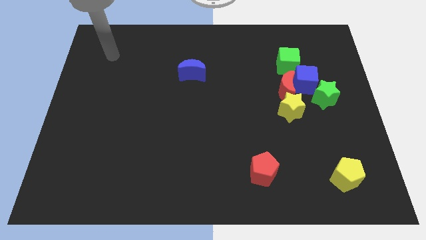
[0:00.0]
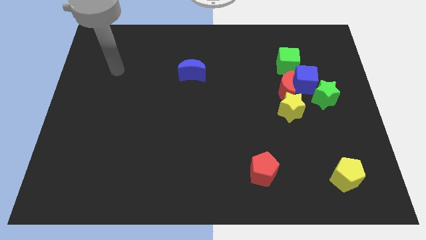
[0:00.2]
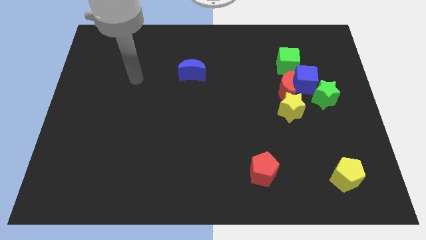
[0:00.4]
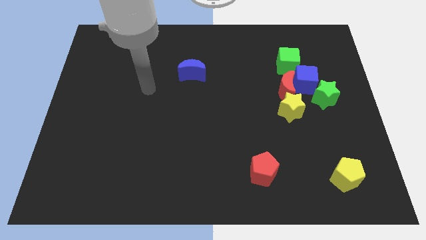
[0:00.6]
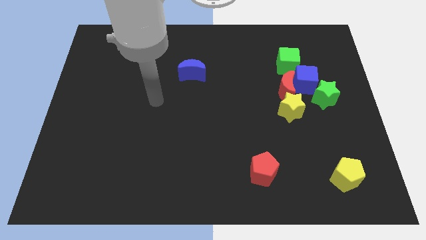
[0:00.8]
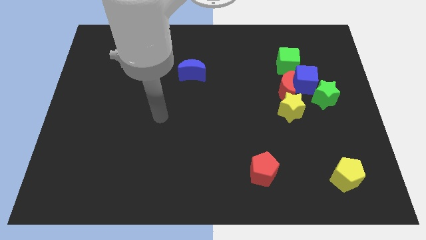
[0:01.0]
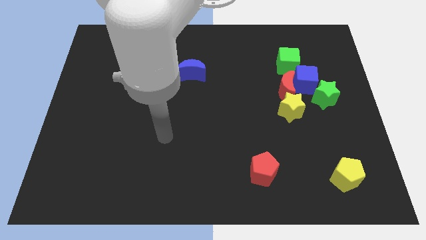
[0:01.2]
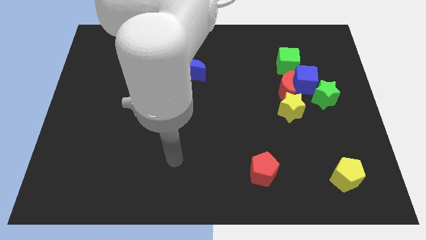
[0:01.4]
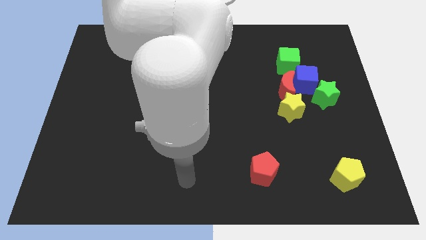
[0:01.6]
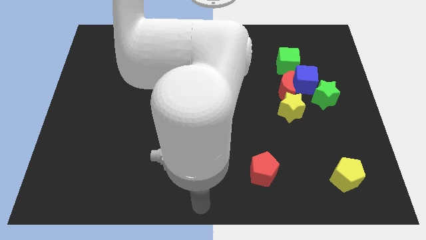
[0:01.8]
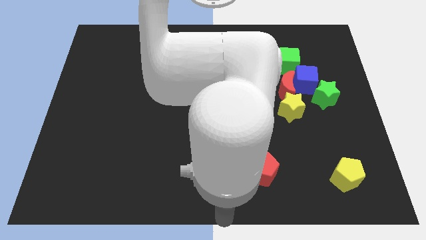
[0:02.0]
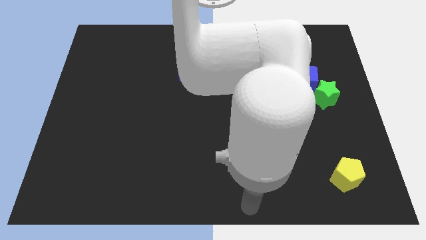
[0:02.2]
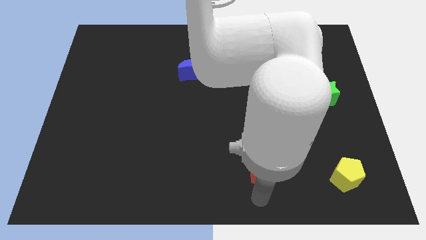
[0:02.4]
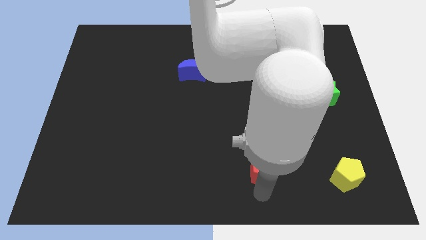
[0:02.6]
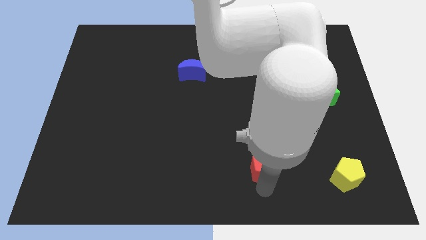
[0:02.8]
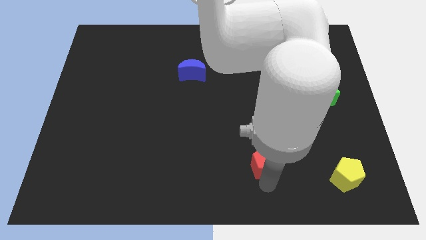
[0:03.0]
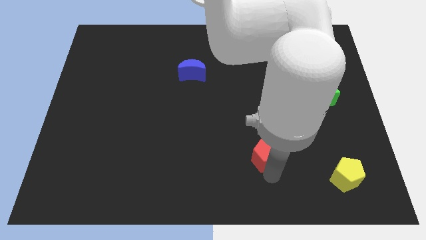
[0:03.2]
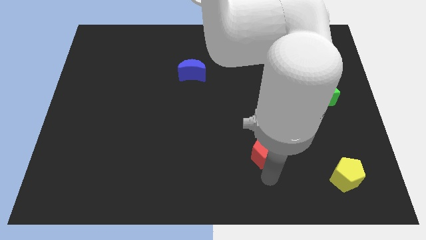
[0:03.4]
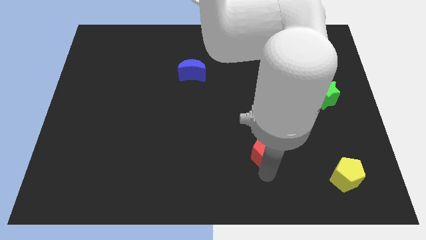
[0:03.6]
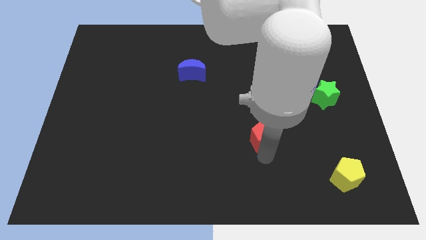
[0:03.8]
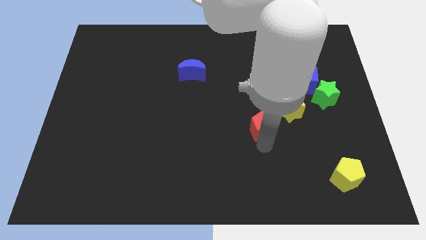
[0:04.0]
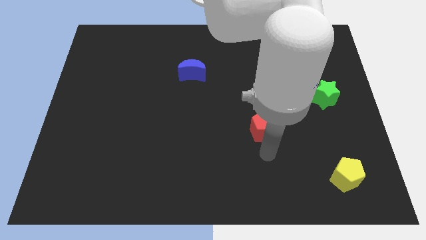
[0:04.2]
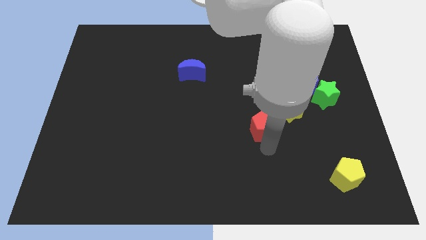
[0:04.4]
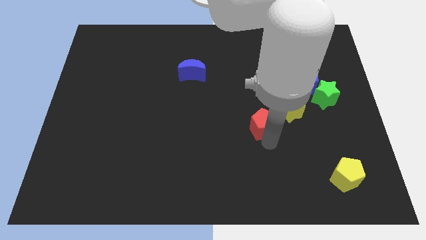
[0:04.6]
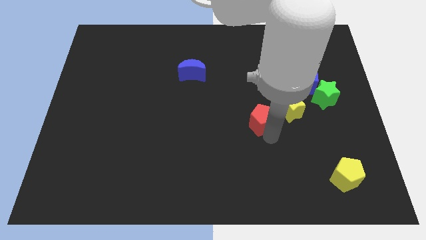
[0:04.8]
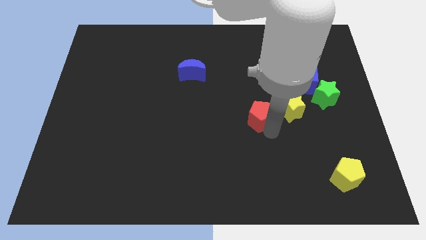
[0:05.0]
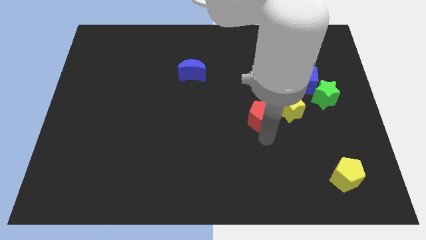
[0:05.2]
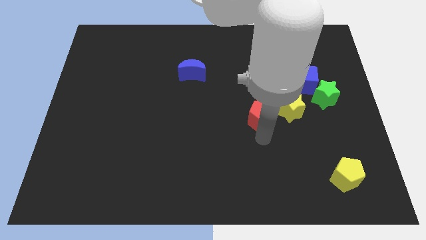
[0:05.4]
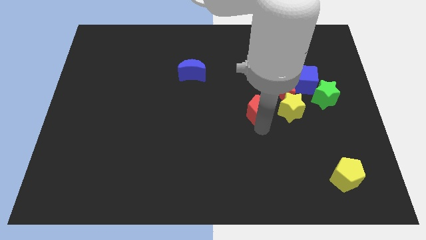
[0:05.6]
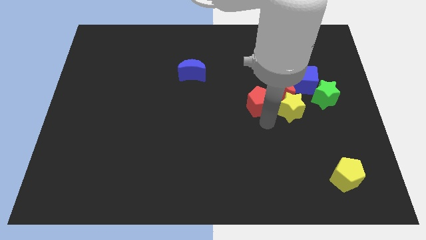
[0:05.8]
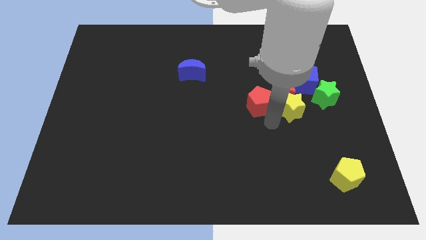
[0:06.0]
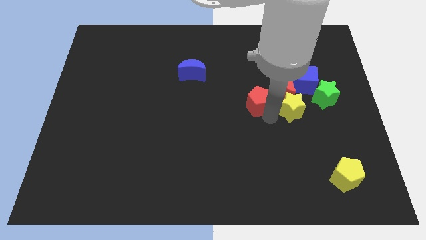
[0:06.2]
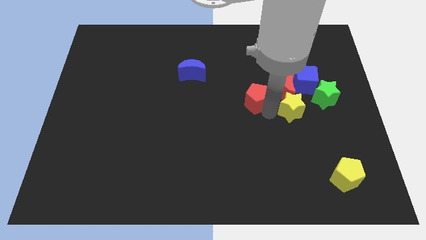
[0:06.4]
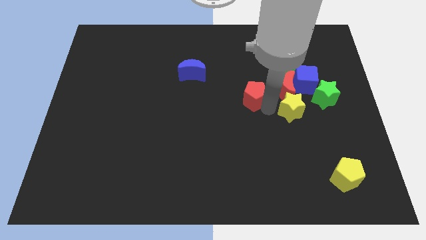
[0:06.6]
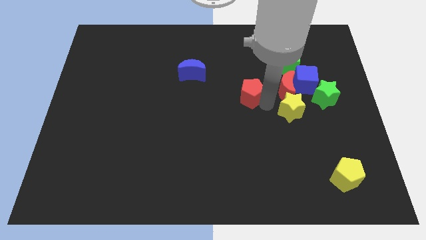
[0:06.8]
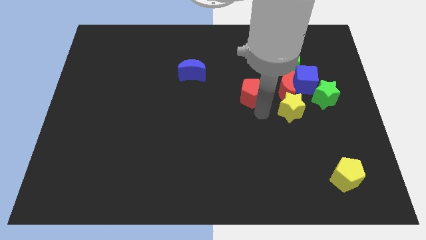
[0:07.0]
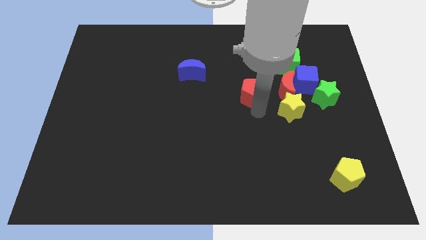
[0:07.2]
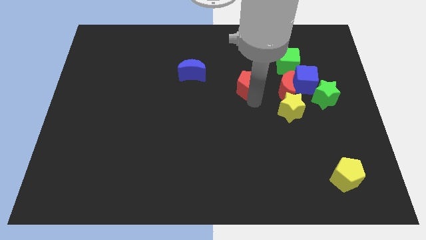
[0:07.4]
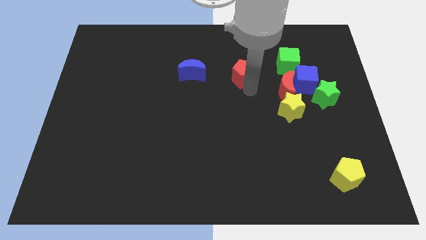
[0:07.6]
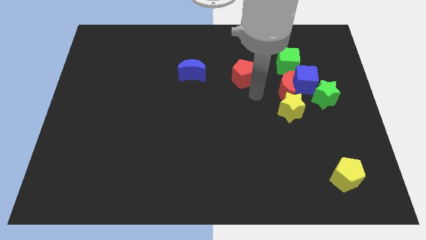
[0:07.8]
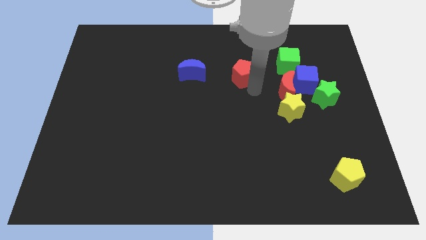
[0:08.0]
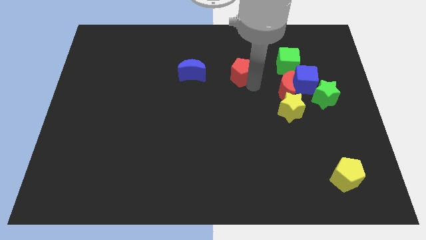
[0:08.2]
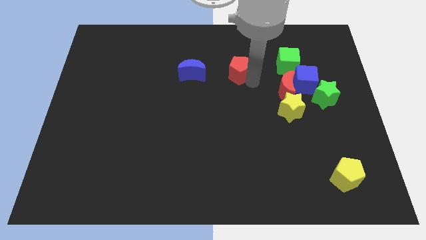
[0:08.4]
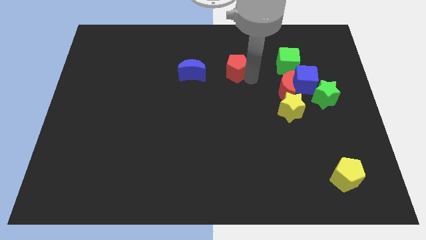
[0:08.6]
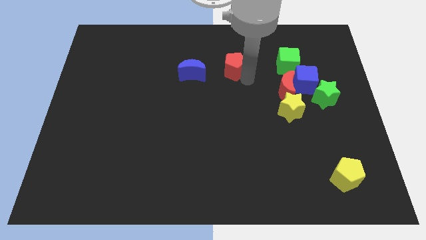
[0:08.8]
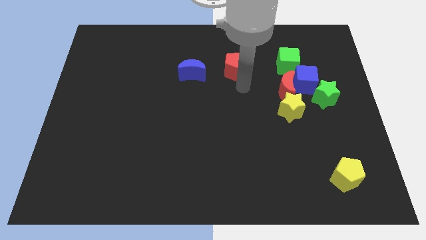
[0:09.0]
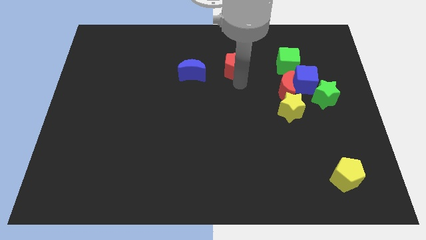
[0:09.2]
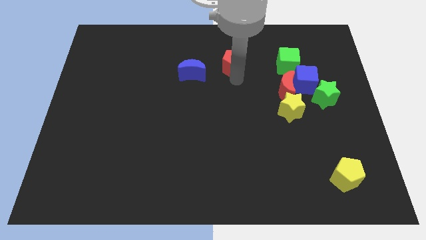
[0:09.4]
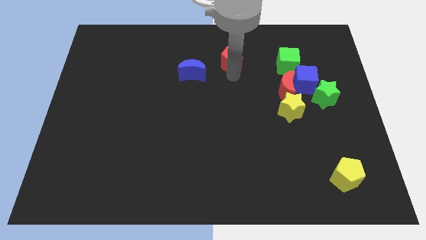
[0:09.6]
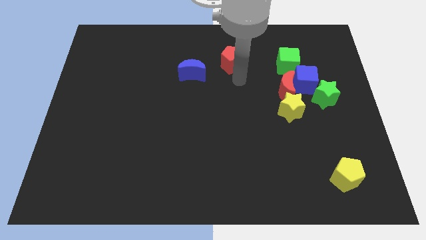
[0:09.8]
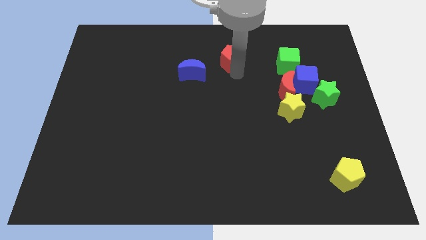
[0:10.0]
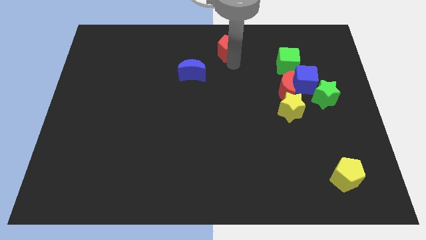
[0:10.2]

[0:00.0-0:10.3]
put the red pentagon to the top side

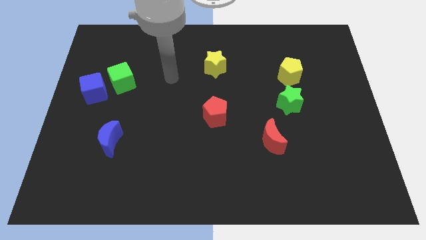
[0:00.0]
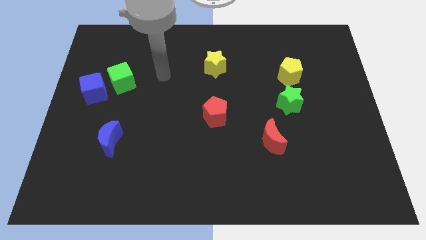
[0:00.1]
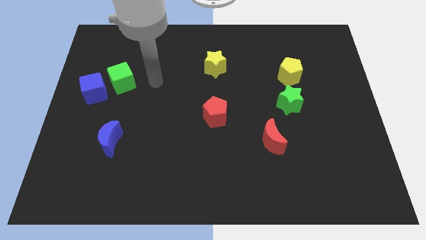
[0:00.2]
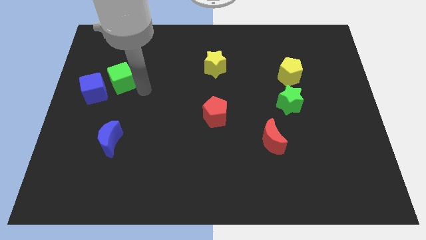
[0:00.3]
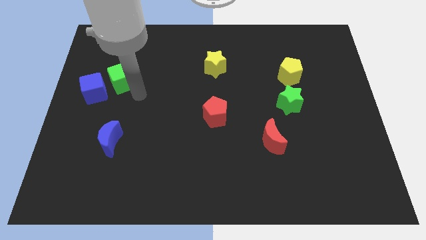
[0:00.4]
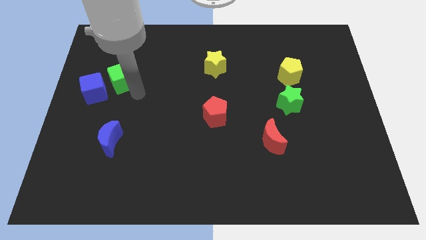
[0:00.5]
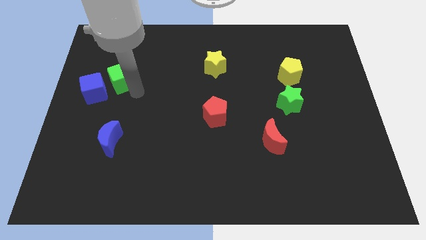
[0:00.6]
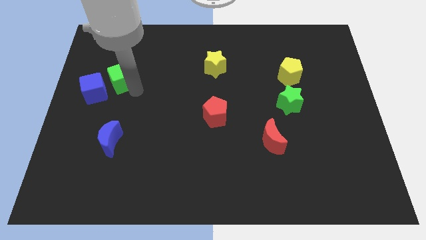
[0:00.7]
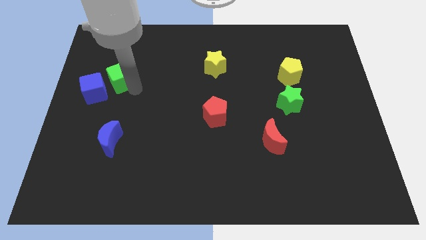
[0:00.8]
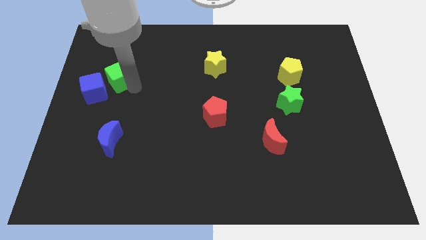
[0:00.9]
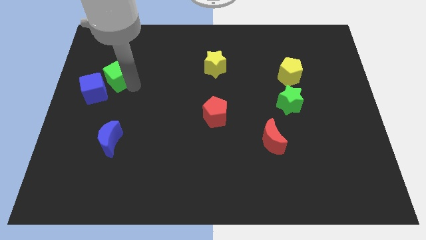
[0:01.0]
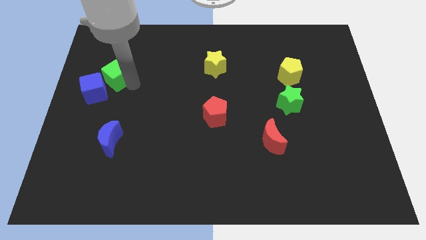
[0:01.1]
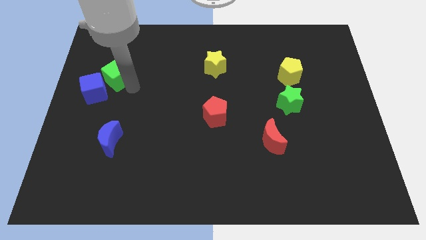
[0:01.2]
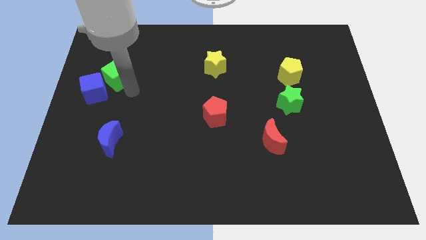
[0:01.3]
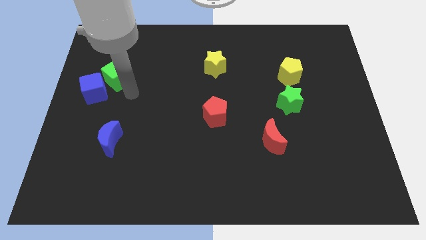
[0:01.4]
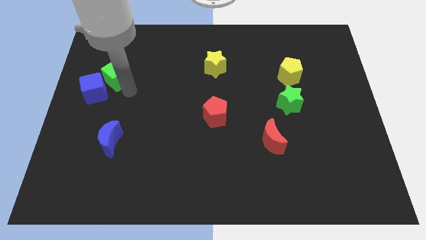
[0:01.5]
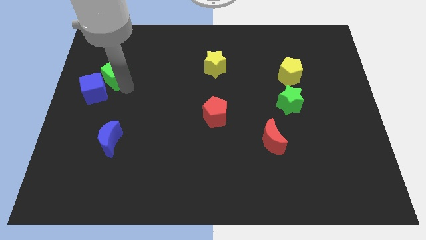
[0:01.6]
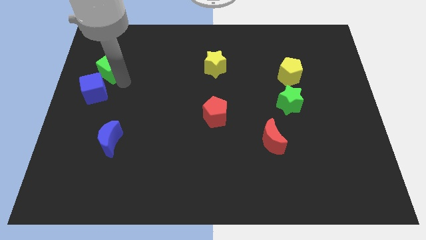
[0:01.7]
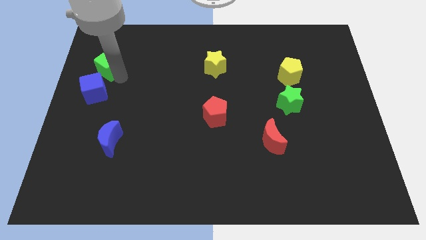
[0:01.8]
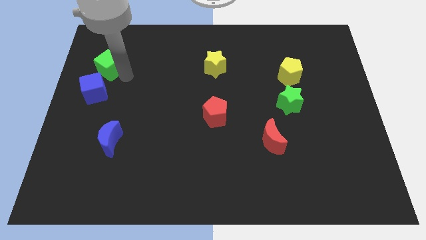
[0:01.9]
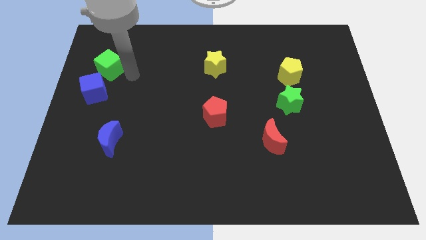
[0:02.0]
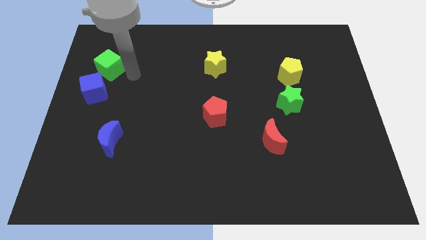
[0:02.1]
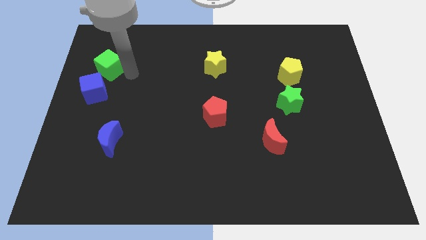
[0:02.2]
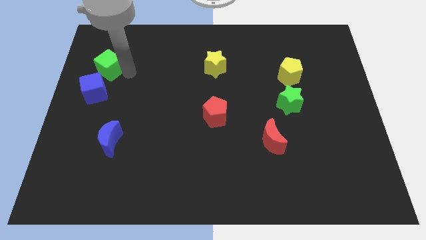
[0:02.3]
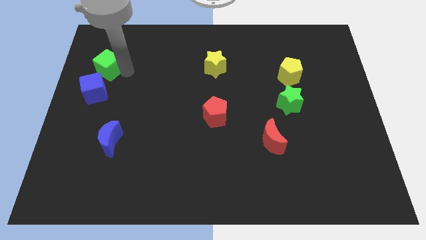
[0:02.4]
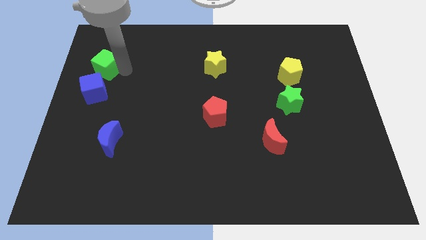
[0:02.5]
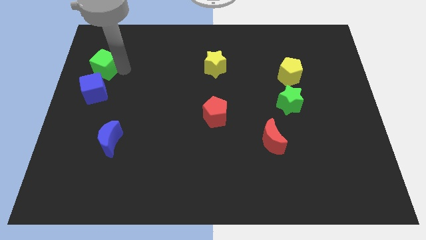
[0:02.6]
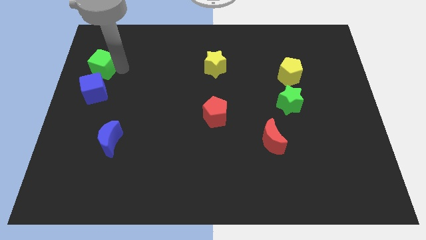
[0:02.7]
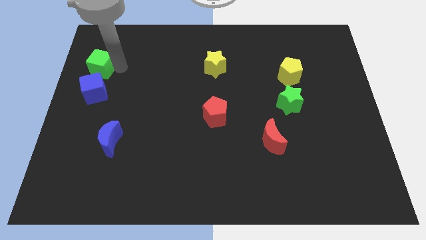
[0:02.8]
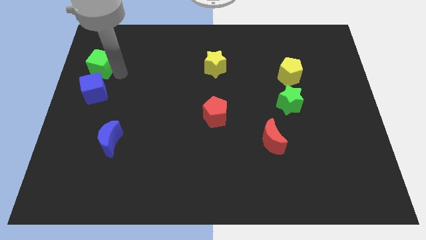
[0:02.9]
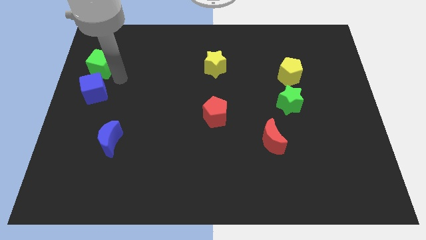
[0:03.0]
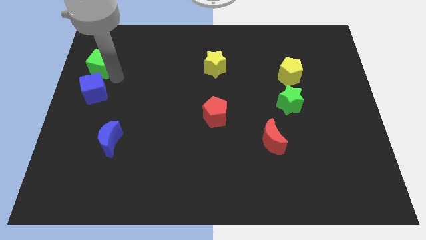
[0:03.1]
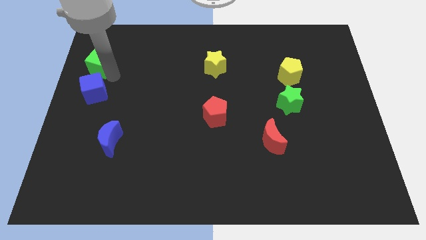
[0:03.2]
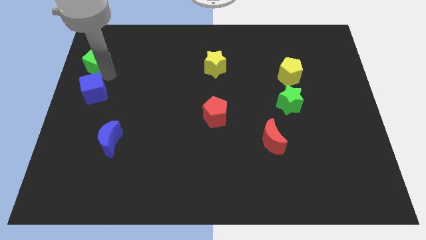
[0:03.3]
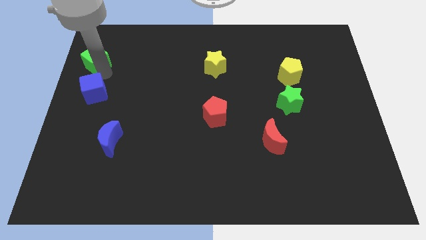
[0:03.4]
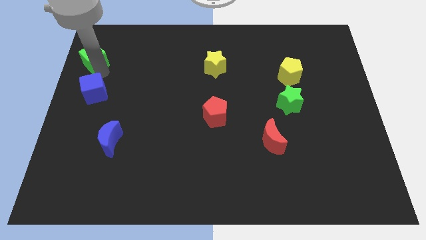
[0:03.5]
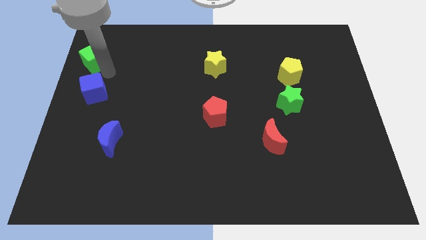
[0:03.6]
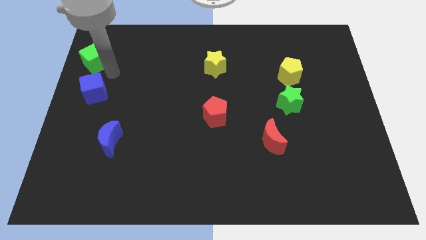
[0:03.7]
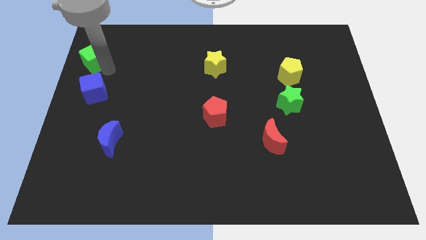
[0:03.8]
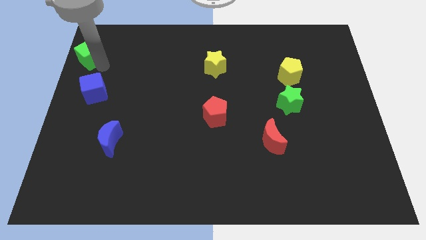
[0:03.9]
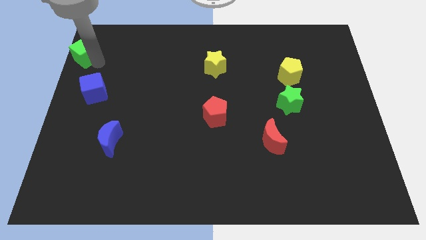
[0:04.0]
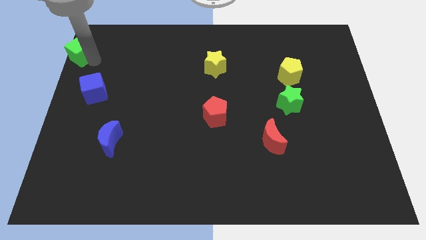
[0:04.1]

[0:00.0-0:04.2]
slide the green cube to the upper left corner
